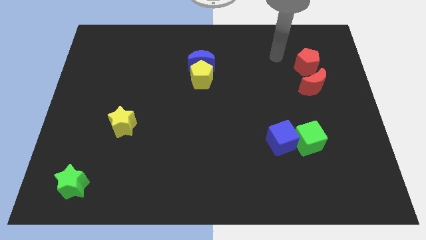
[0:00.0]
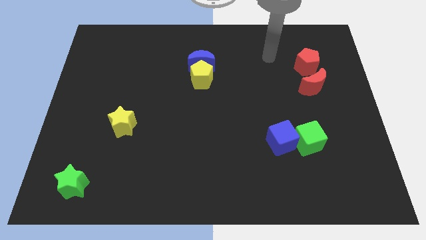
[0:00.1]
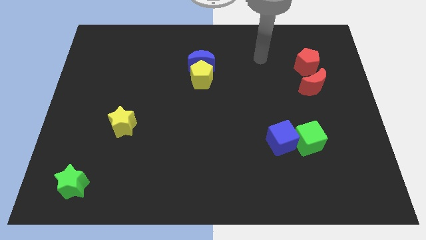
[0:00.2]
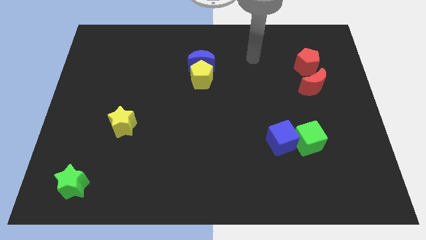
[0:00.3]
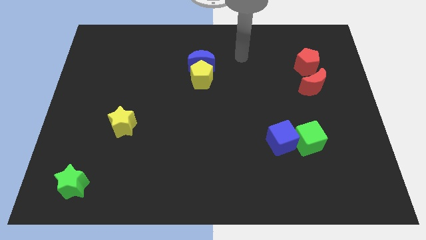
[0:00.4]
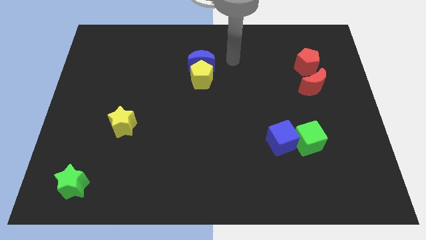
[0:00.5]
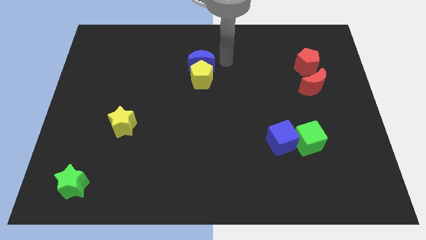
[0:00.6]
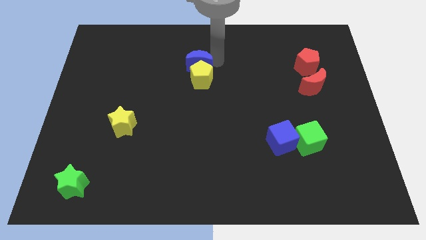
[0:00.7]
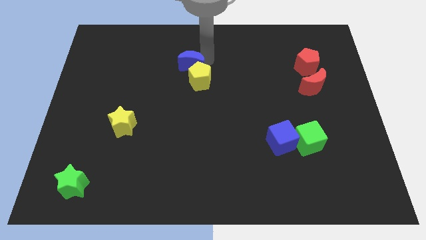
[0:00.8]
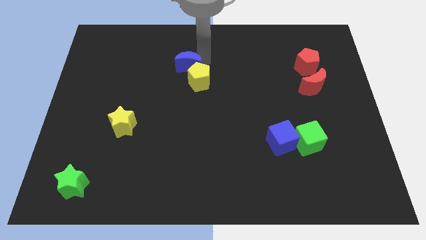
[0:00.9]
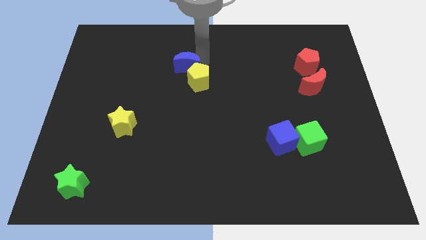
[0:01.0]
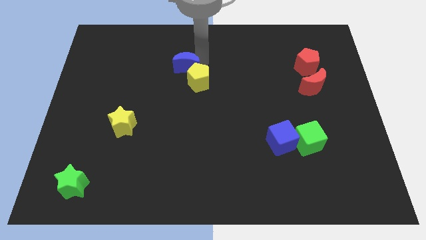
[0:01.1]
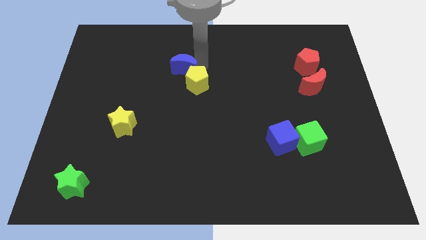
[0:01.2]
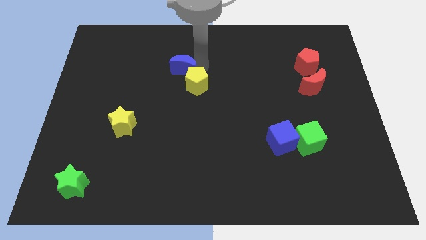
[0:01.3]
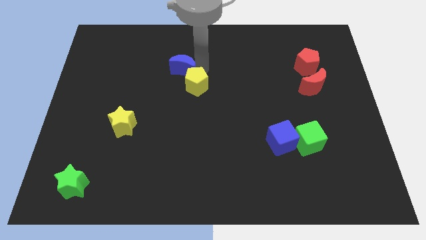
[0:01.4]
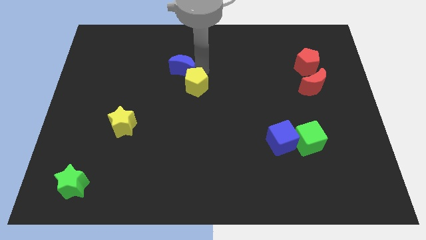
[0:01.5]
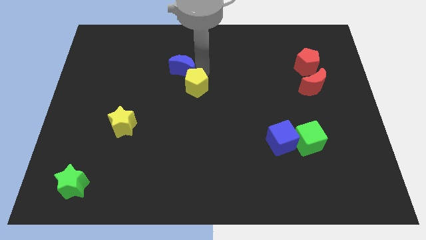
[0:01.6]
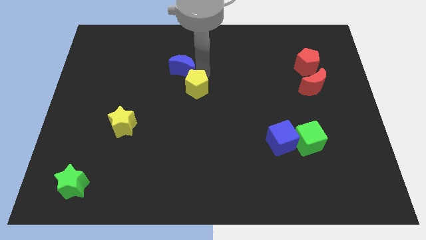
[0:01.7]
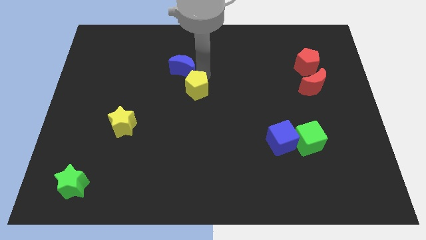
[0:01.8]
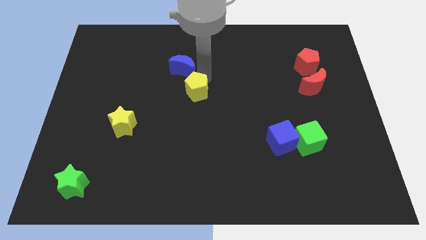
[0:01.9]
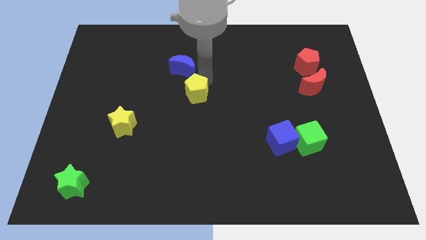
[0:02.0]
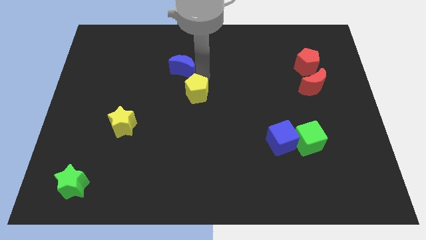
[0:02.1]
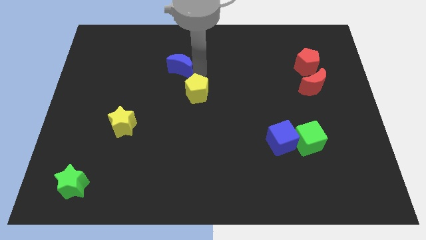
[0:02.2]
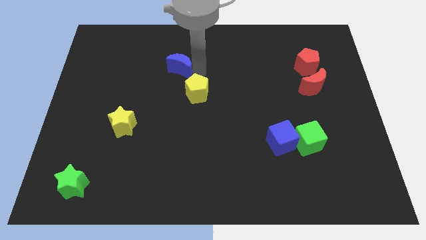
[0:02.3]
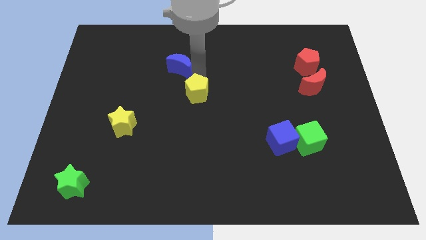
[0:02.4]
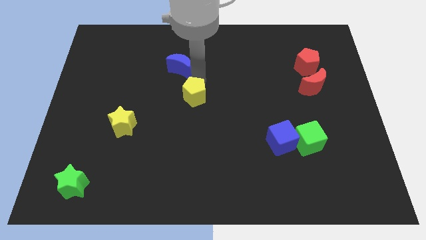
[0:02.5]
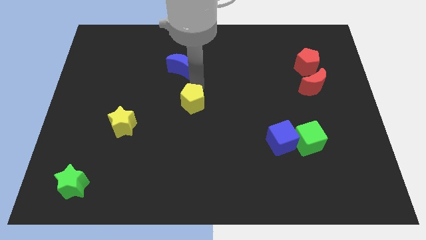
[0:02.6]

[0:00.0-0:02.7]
slide the yellow pentagon somewhat down

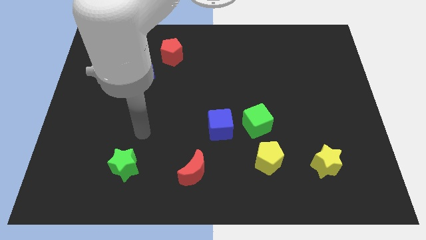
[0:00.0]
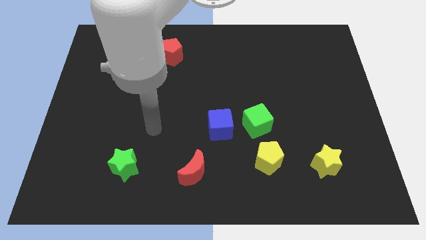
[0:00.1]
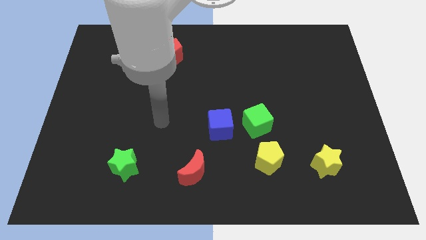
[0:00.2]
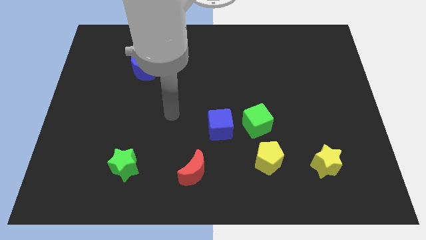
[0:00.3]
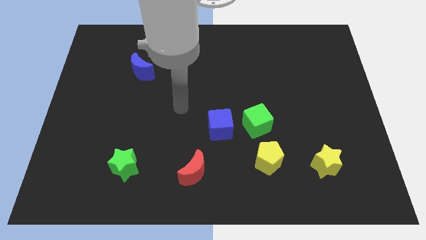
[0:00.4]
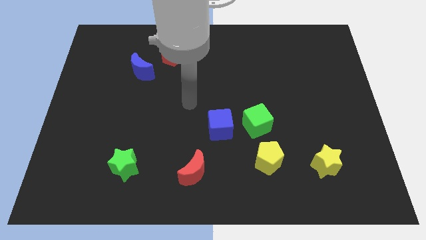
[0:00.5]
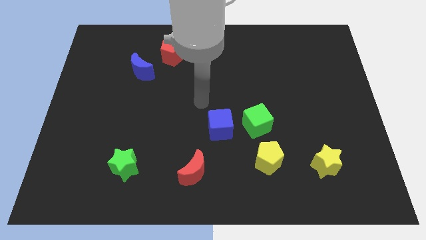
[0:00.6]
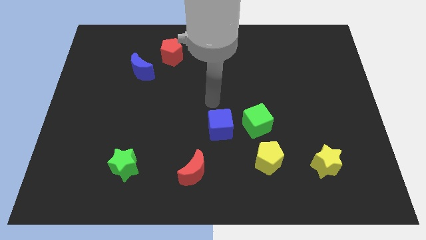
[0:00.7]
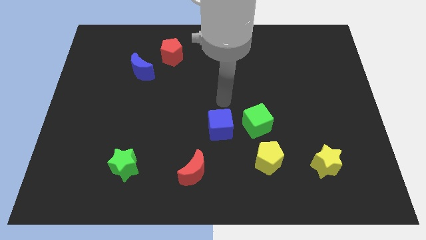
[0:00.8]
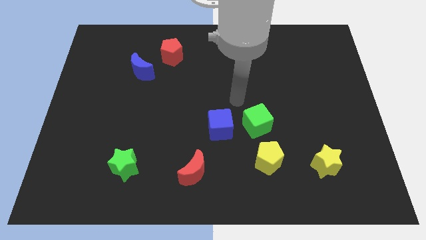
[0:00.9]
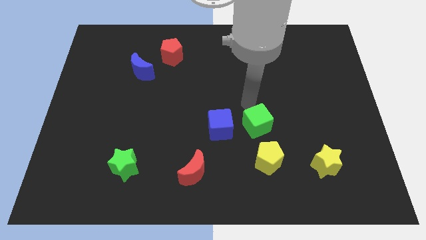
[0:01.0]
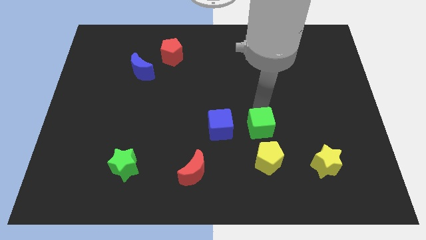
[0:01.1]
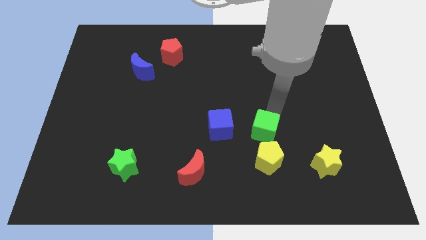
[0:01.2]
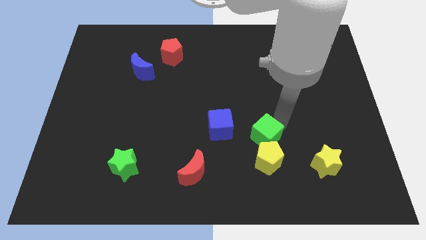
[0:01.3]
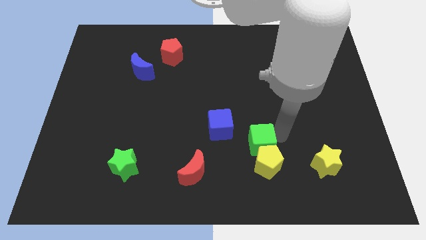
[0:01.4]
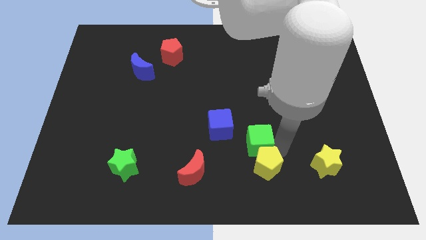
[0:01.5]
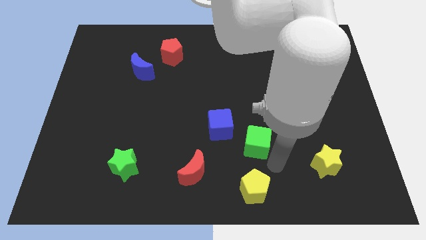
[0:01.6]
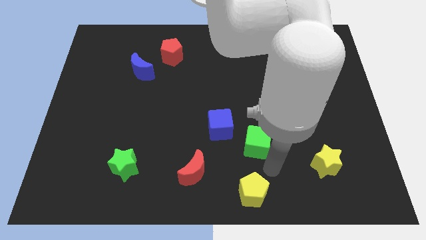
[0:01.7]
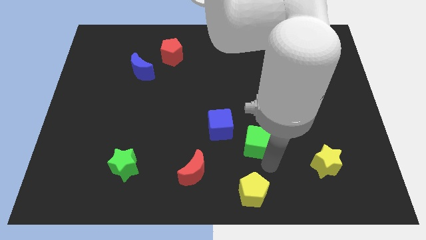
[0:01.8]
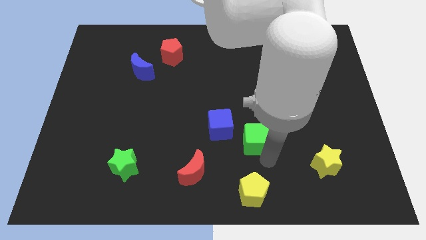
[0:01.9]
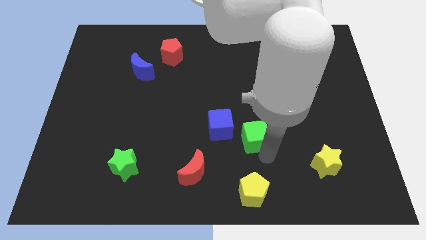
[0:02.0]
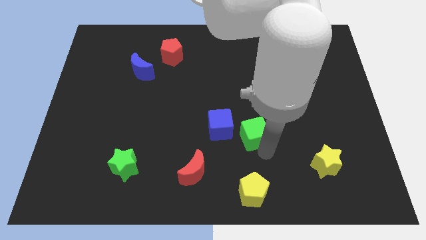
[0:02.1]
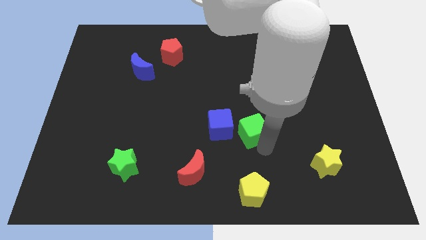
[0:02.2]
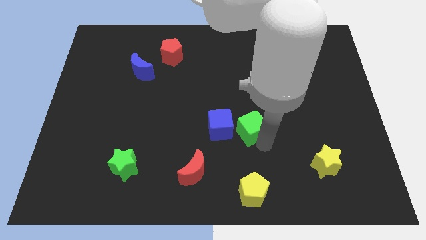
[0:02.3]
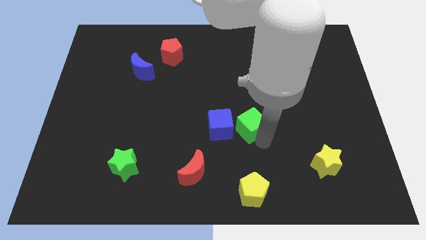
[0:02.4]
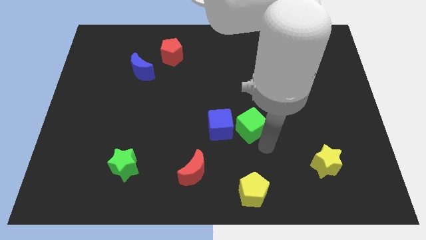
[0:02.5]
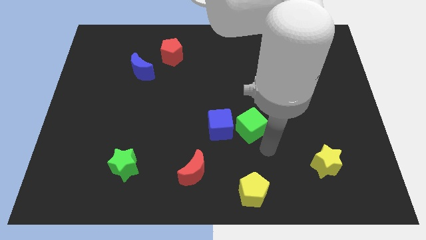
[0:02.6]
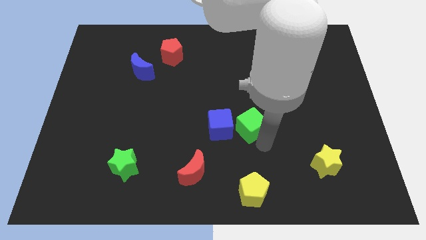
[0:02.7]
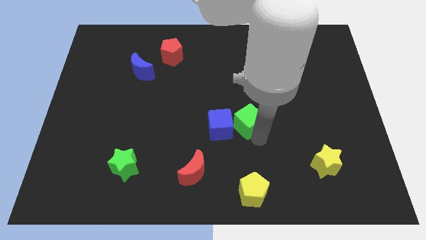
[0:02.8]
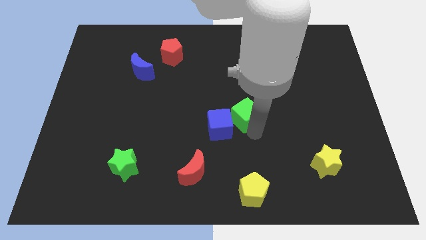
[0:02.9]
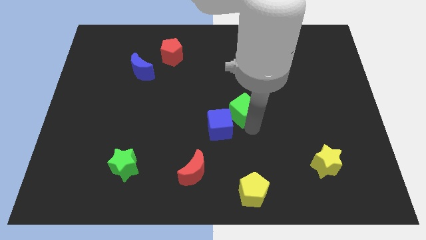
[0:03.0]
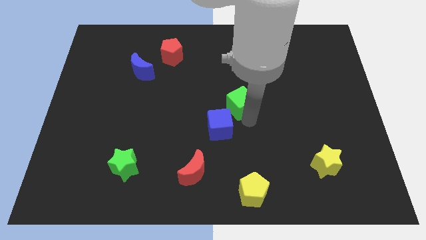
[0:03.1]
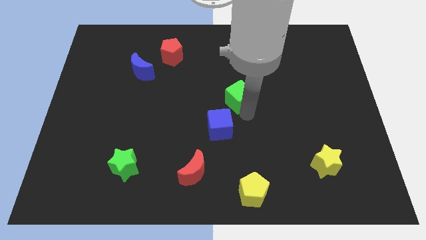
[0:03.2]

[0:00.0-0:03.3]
slightly push the green cube upwards and to the left

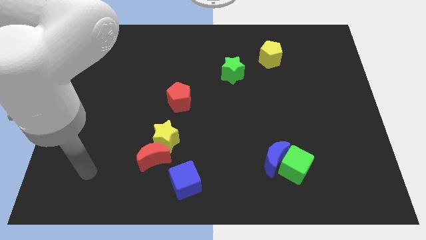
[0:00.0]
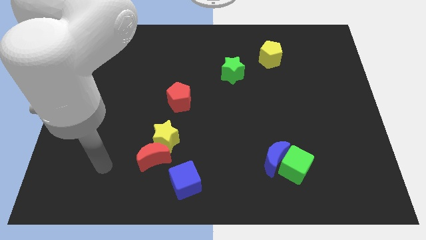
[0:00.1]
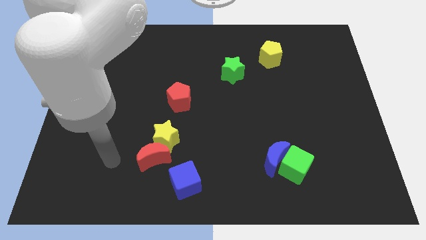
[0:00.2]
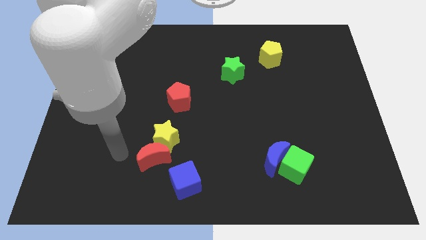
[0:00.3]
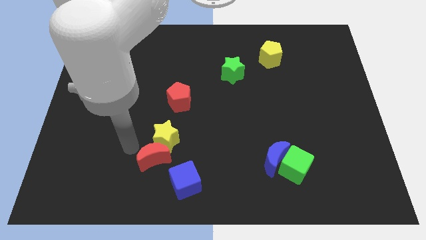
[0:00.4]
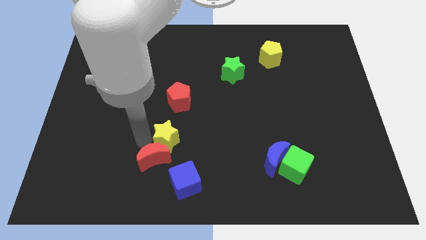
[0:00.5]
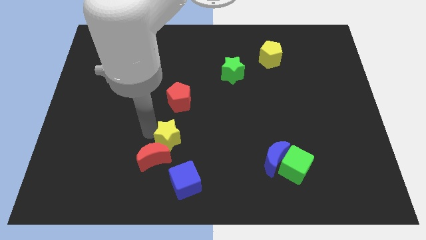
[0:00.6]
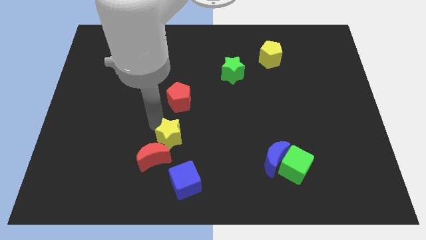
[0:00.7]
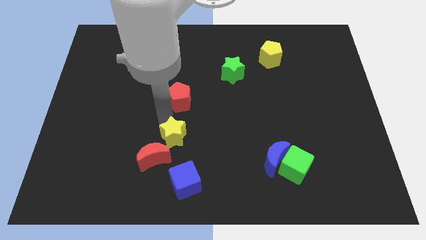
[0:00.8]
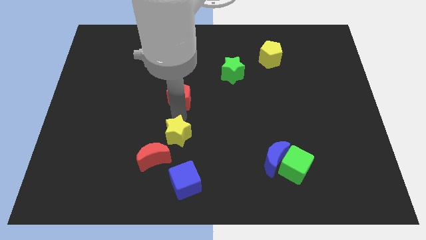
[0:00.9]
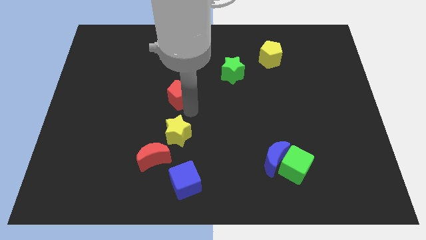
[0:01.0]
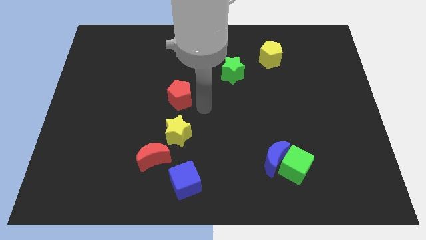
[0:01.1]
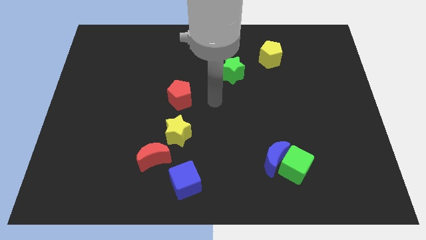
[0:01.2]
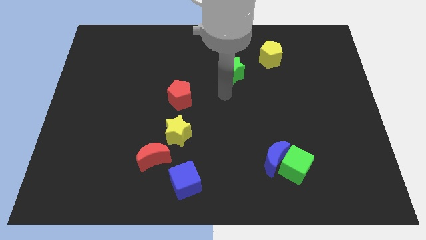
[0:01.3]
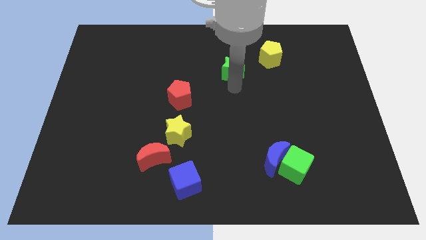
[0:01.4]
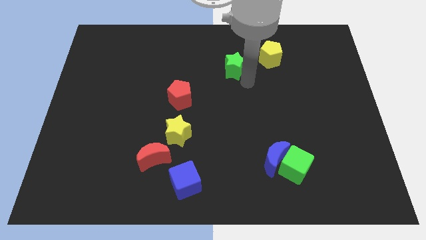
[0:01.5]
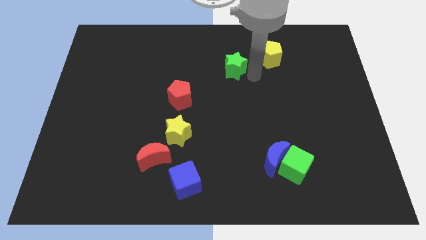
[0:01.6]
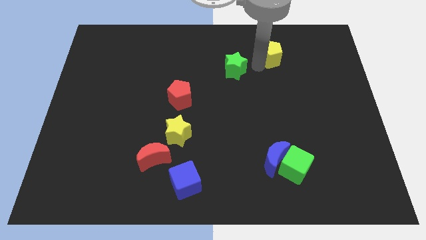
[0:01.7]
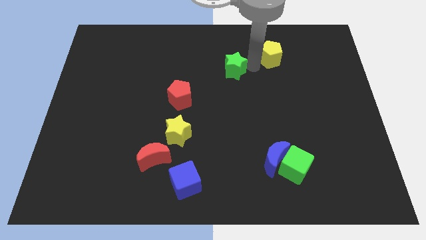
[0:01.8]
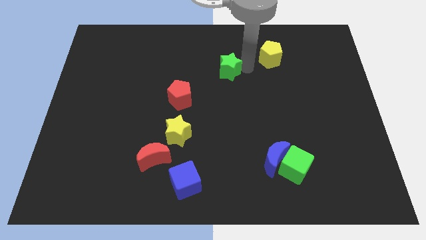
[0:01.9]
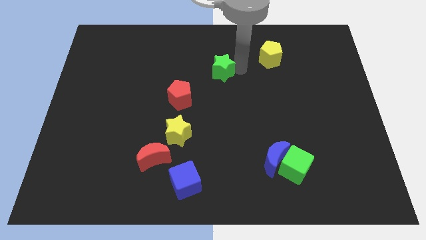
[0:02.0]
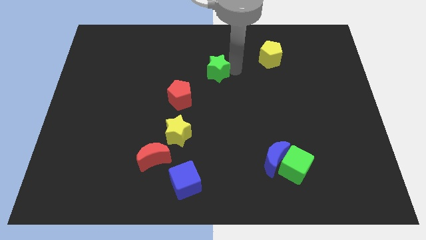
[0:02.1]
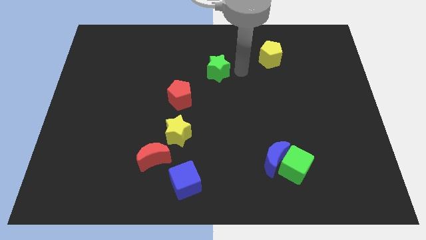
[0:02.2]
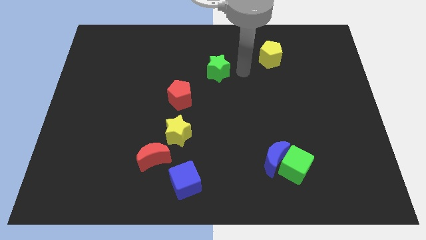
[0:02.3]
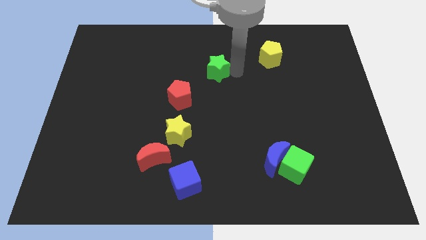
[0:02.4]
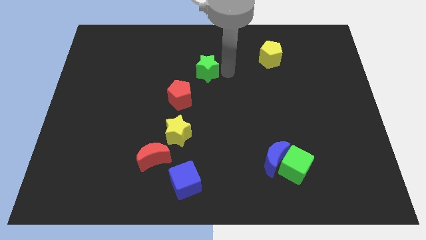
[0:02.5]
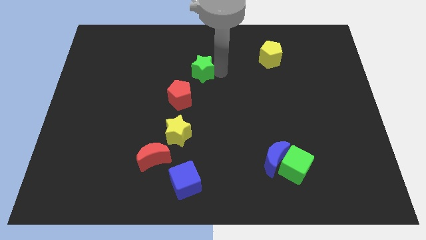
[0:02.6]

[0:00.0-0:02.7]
slide the green star to the left a bit
